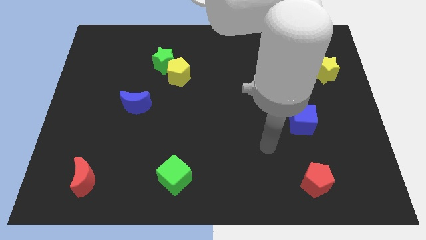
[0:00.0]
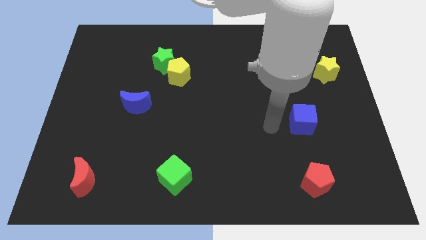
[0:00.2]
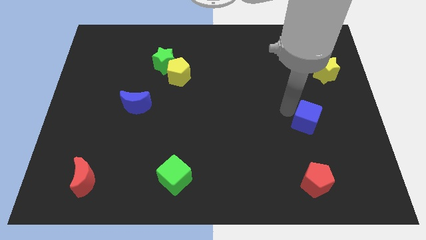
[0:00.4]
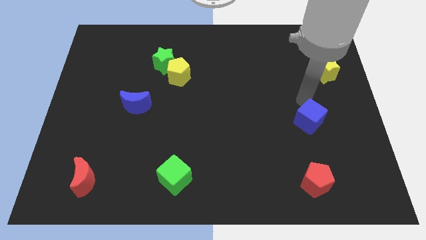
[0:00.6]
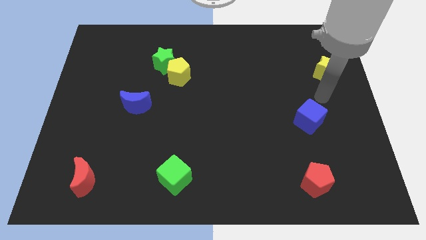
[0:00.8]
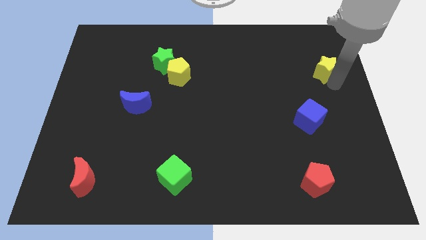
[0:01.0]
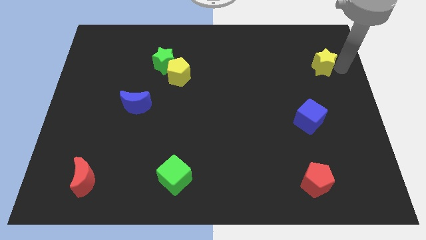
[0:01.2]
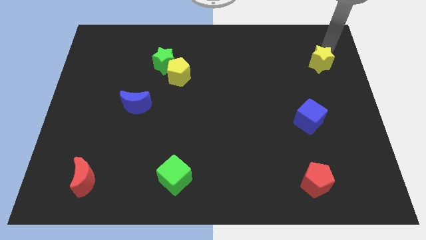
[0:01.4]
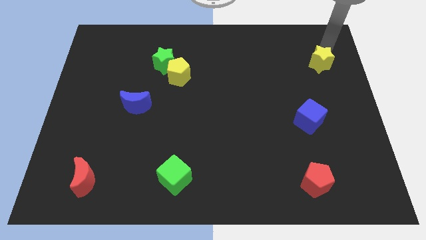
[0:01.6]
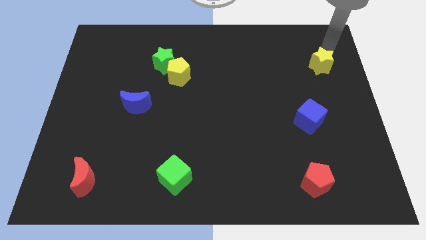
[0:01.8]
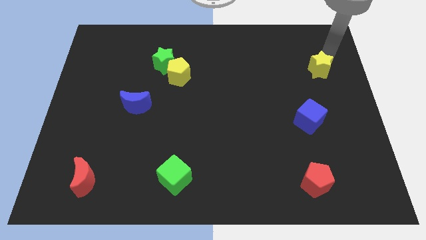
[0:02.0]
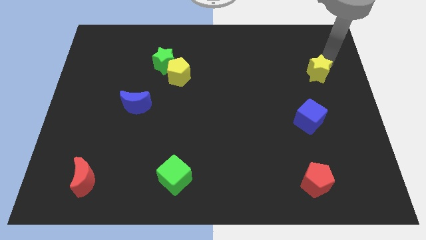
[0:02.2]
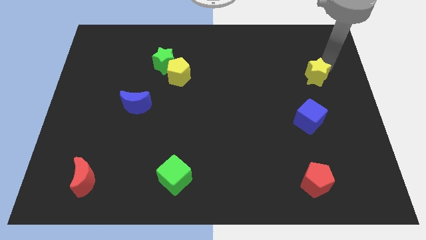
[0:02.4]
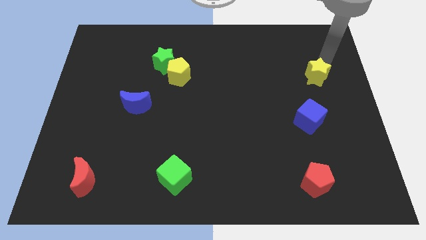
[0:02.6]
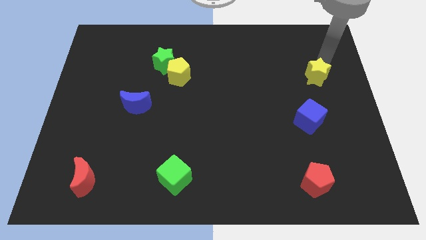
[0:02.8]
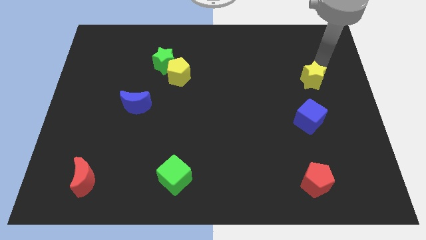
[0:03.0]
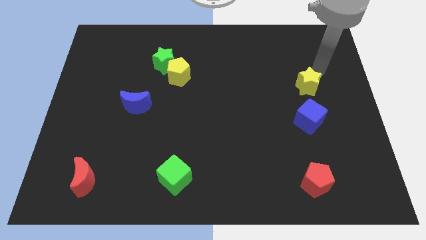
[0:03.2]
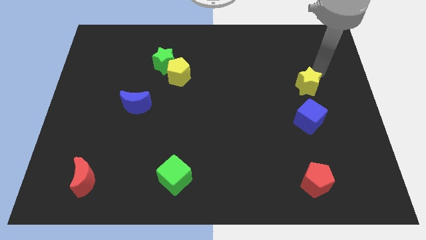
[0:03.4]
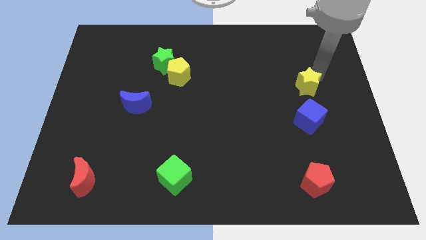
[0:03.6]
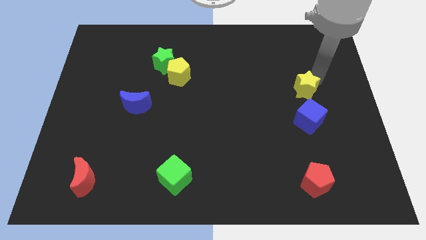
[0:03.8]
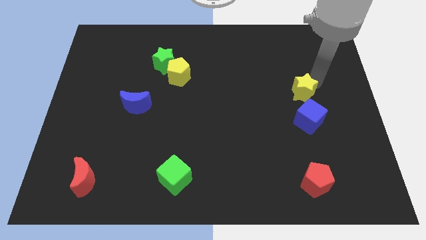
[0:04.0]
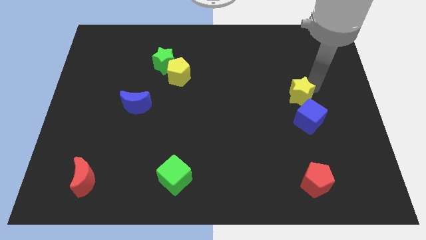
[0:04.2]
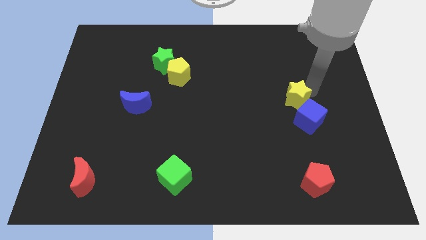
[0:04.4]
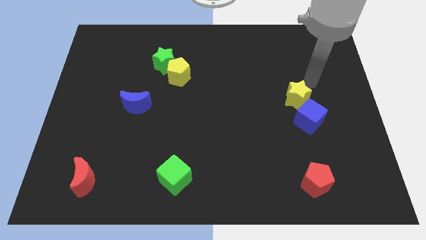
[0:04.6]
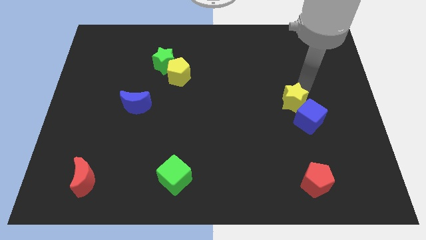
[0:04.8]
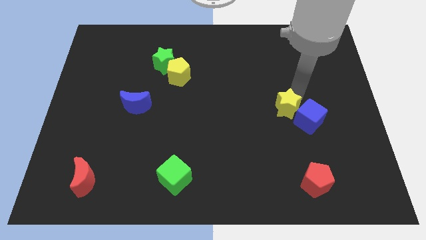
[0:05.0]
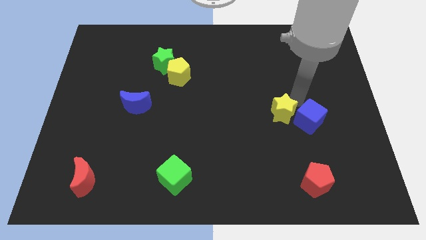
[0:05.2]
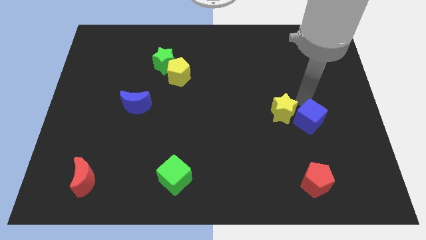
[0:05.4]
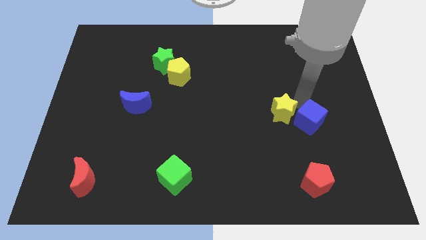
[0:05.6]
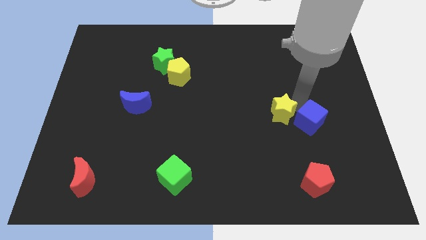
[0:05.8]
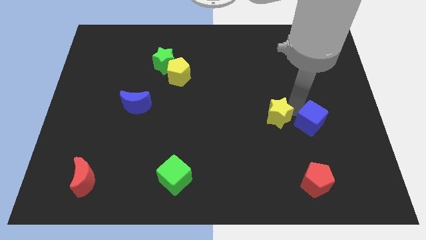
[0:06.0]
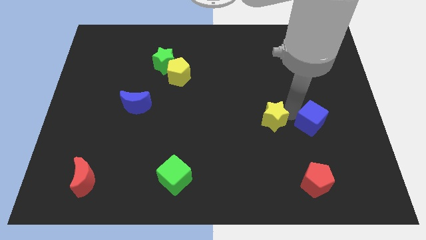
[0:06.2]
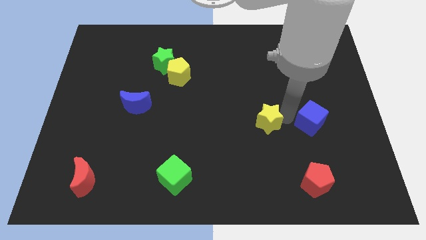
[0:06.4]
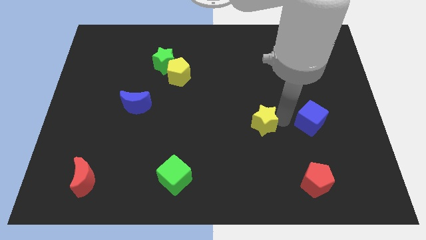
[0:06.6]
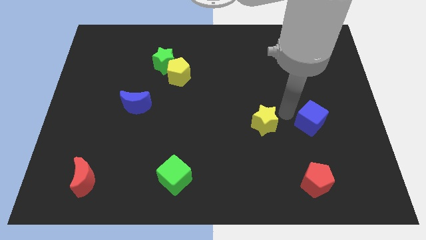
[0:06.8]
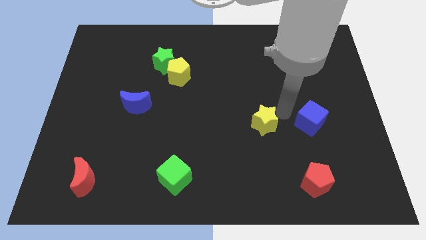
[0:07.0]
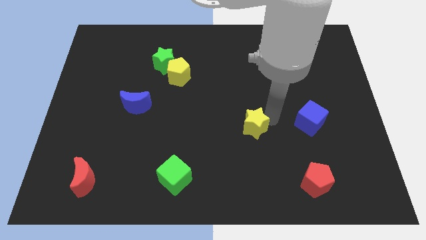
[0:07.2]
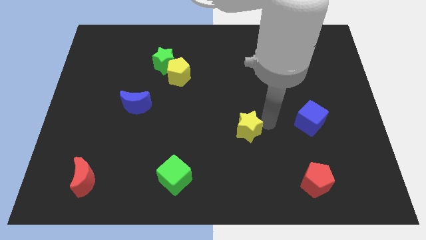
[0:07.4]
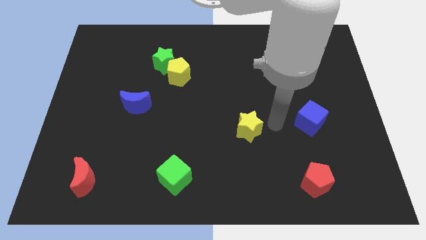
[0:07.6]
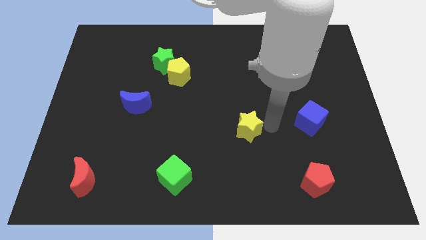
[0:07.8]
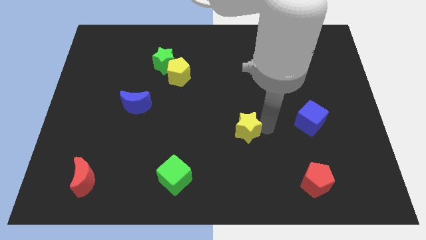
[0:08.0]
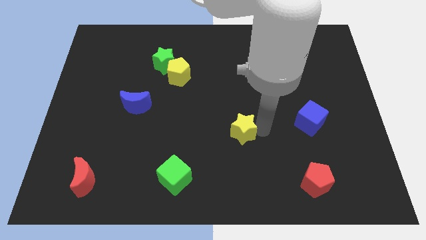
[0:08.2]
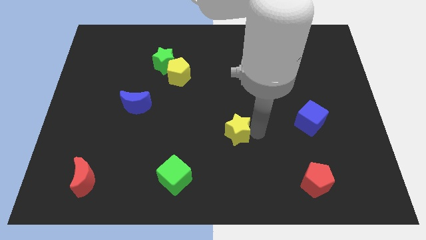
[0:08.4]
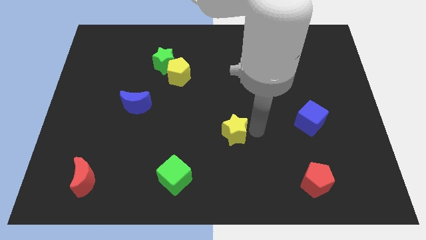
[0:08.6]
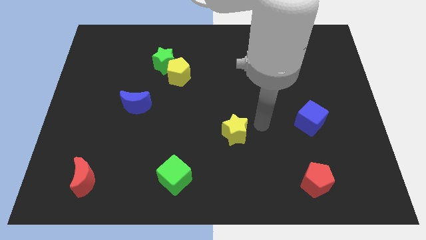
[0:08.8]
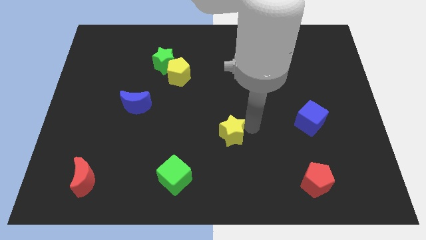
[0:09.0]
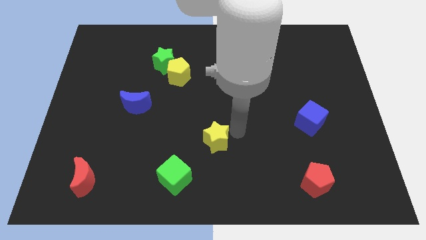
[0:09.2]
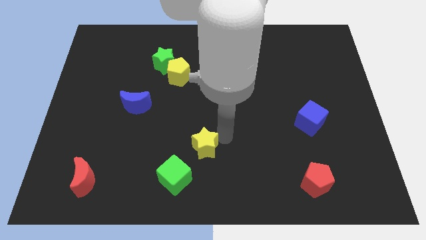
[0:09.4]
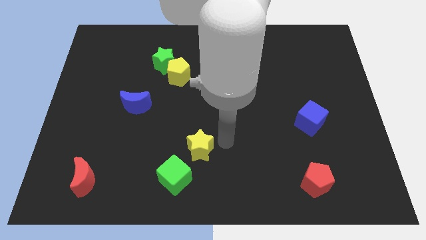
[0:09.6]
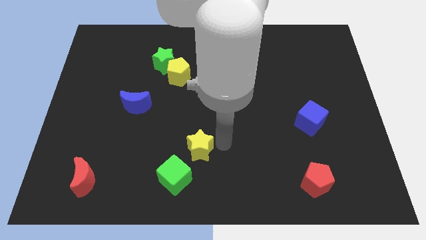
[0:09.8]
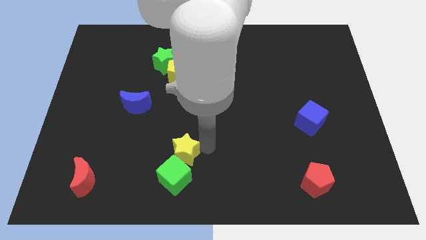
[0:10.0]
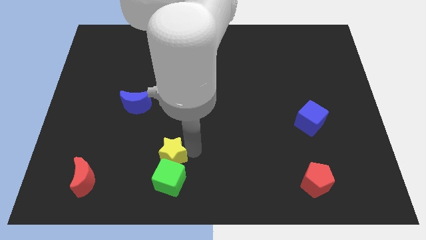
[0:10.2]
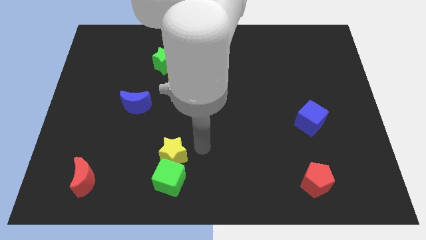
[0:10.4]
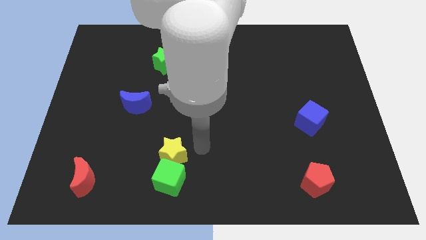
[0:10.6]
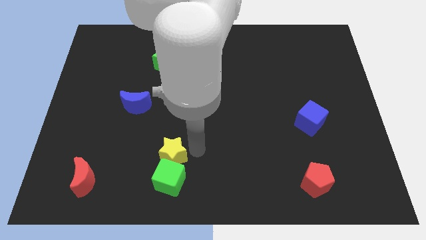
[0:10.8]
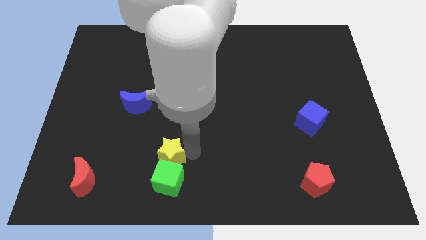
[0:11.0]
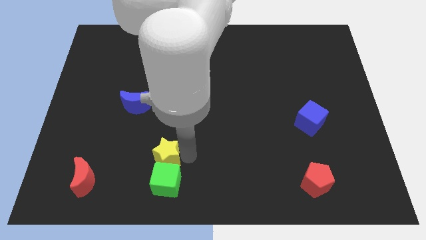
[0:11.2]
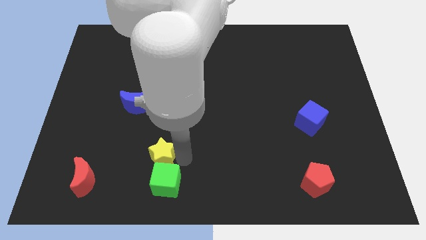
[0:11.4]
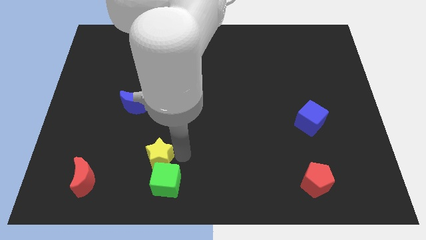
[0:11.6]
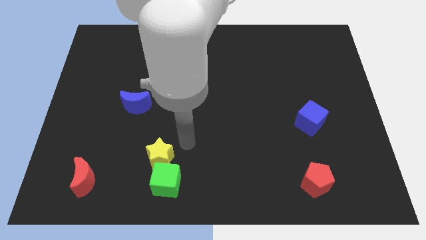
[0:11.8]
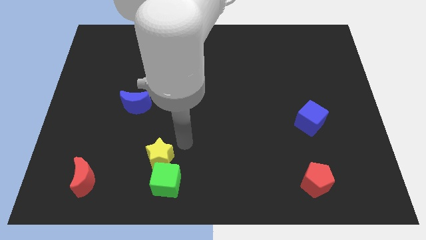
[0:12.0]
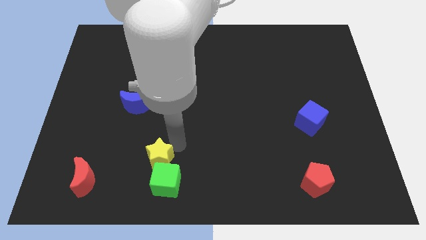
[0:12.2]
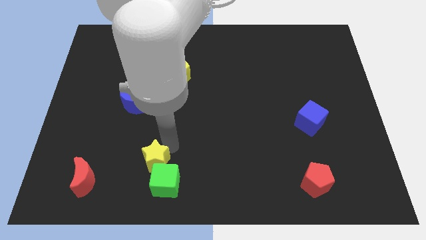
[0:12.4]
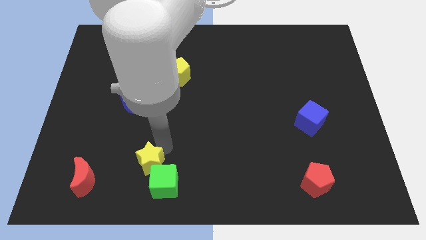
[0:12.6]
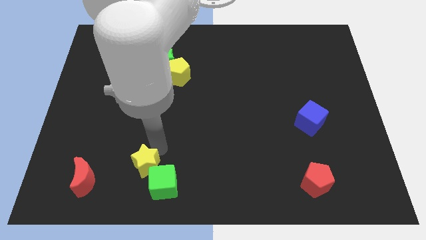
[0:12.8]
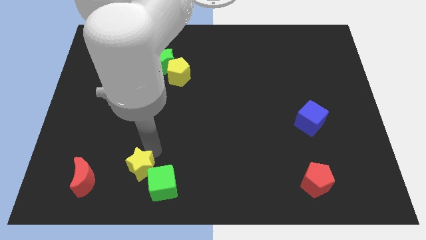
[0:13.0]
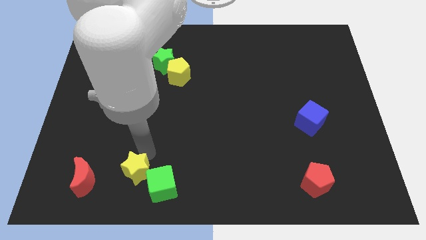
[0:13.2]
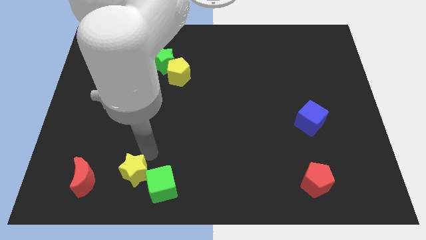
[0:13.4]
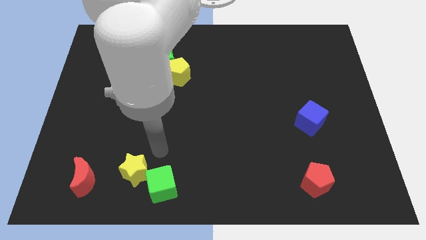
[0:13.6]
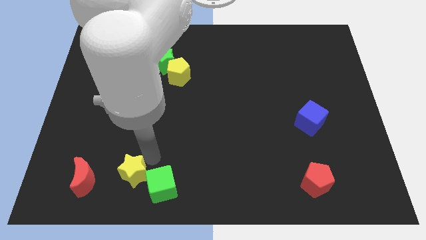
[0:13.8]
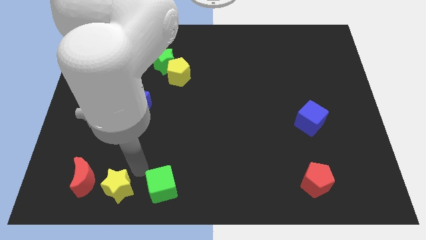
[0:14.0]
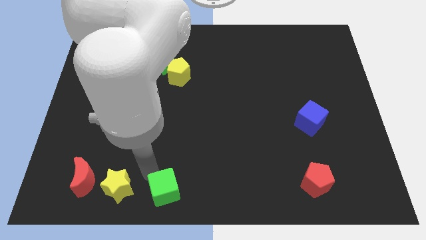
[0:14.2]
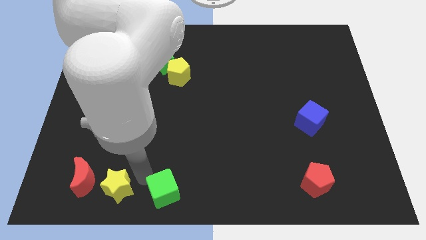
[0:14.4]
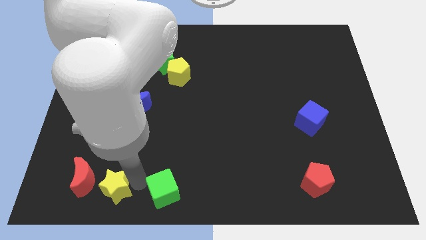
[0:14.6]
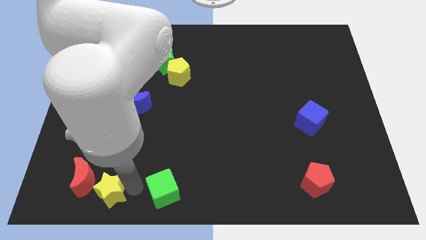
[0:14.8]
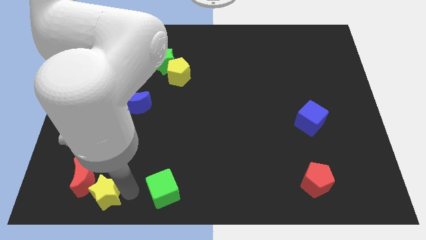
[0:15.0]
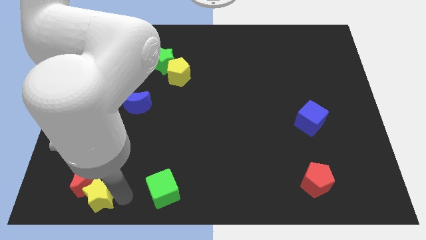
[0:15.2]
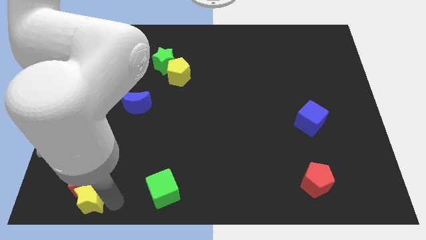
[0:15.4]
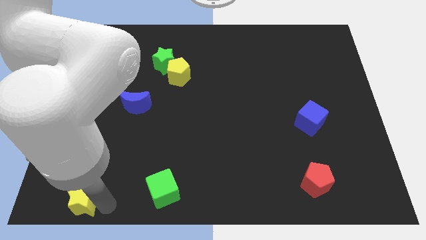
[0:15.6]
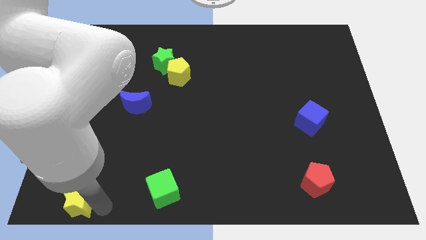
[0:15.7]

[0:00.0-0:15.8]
push the yellow star to the bottom left corner
